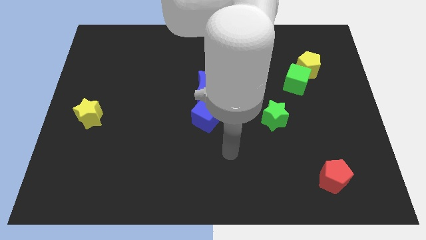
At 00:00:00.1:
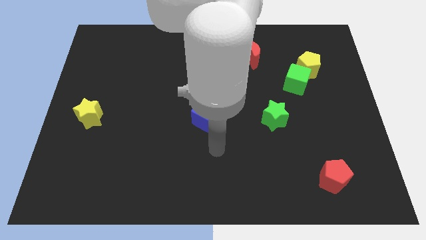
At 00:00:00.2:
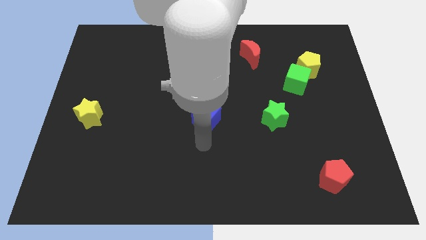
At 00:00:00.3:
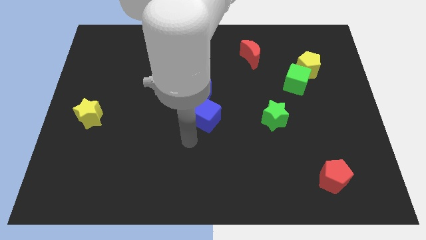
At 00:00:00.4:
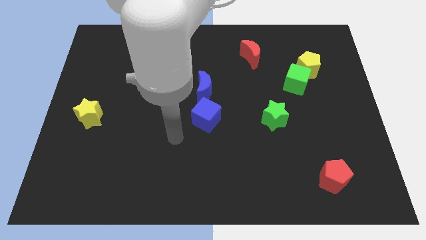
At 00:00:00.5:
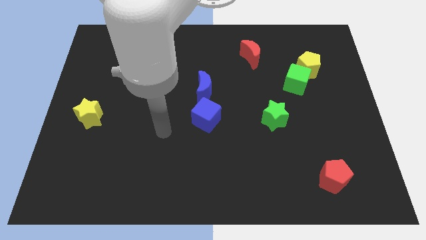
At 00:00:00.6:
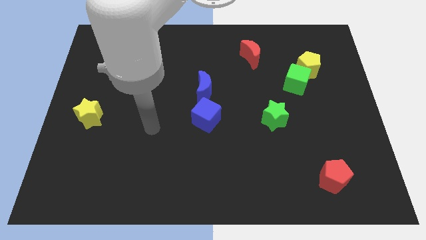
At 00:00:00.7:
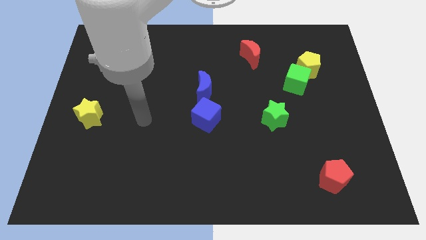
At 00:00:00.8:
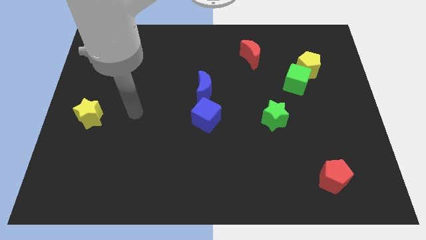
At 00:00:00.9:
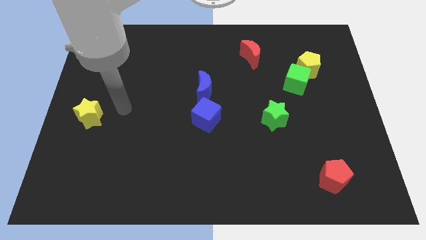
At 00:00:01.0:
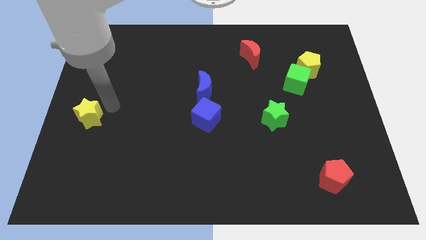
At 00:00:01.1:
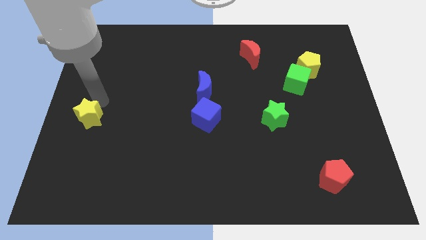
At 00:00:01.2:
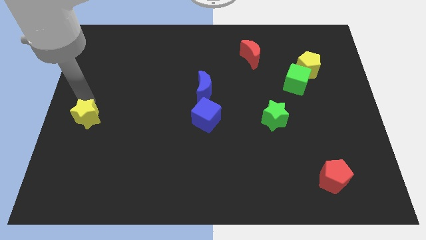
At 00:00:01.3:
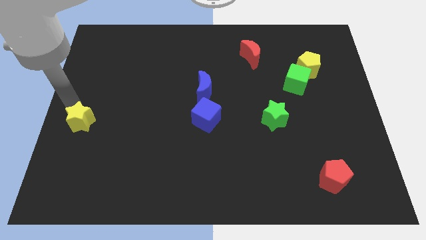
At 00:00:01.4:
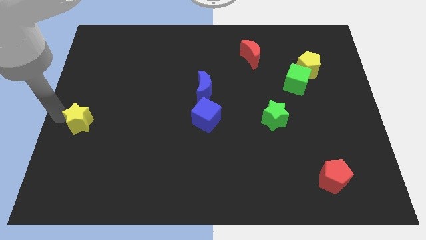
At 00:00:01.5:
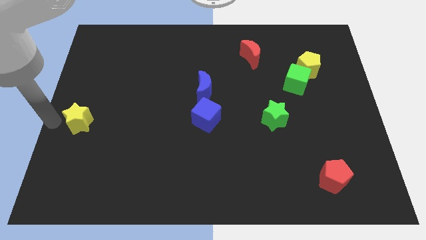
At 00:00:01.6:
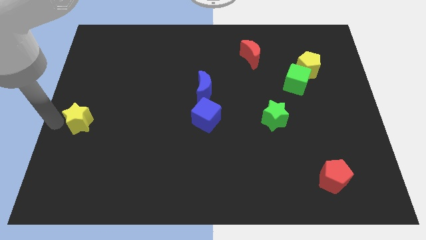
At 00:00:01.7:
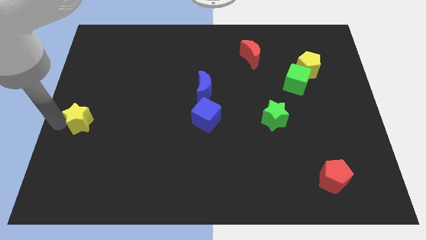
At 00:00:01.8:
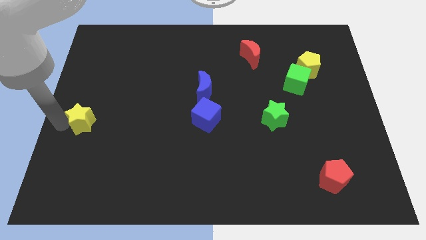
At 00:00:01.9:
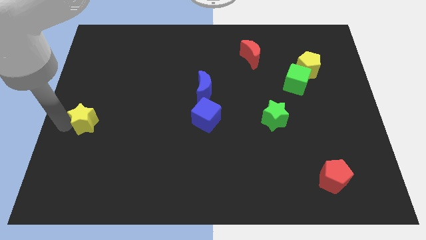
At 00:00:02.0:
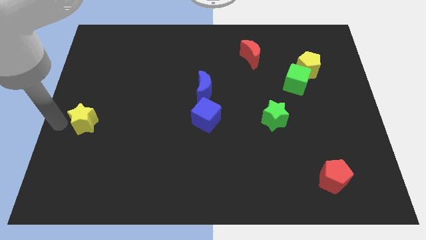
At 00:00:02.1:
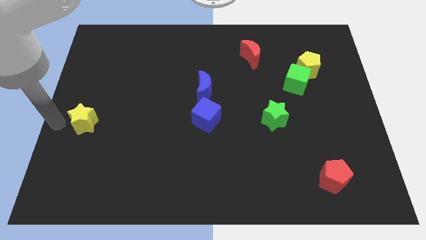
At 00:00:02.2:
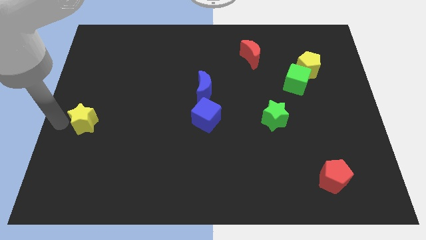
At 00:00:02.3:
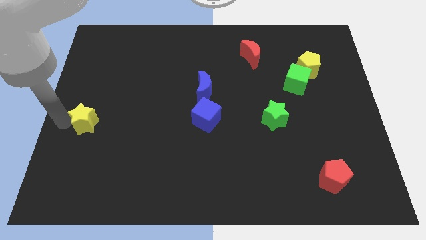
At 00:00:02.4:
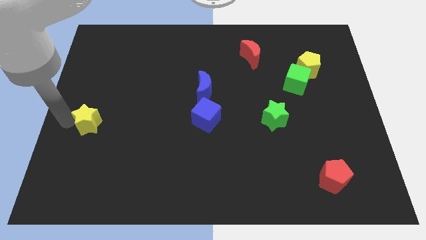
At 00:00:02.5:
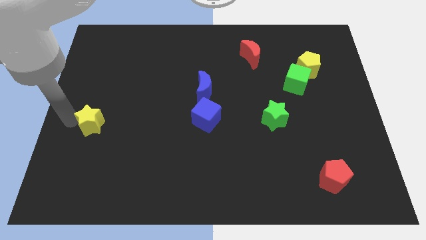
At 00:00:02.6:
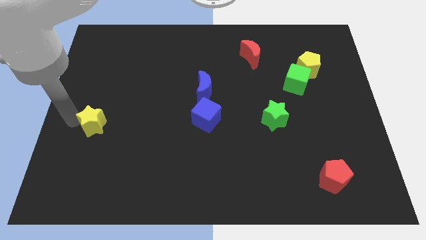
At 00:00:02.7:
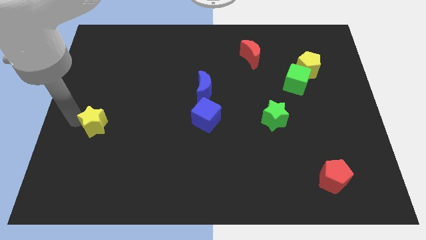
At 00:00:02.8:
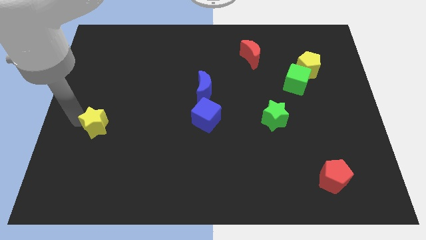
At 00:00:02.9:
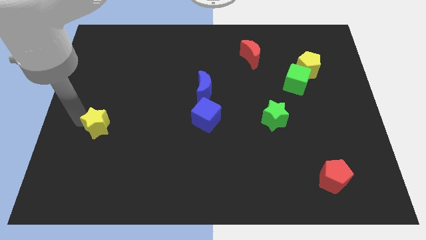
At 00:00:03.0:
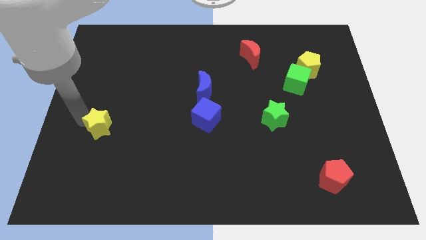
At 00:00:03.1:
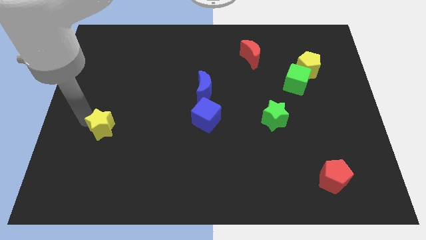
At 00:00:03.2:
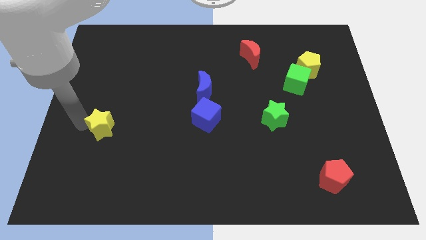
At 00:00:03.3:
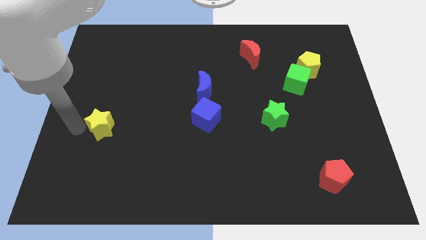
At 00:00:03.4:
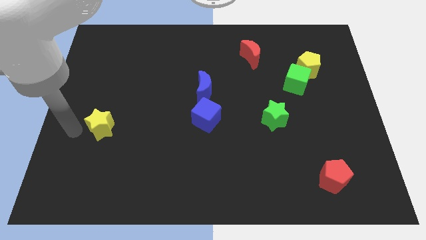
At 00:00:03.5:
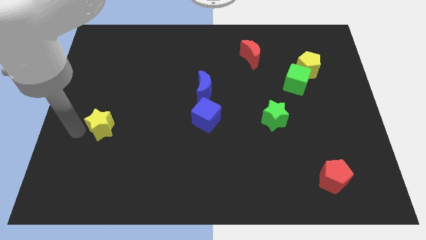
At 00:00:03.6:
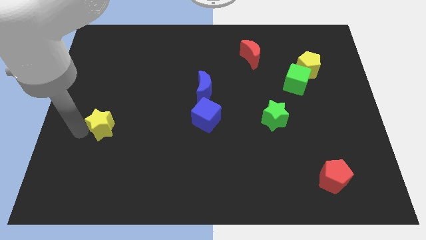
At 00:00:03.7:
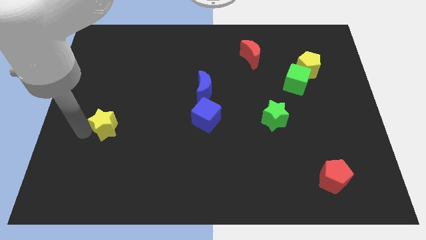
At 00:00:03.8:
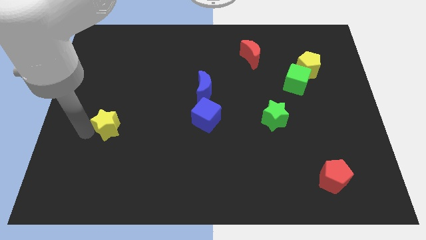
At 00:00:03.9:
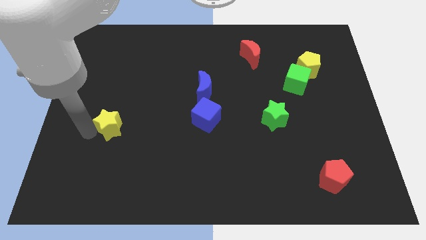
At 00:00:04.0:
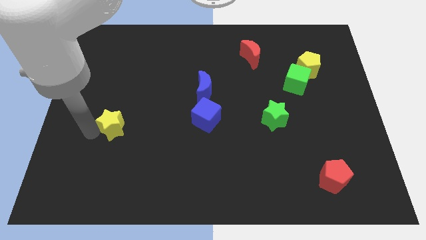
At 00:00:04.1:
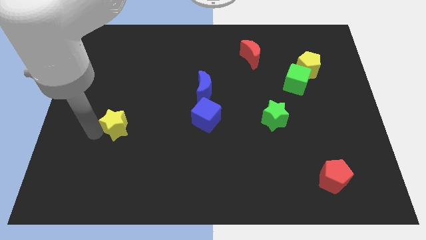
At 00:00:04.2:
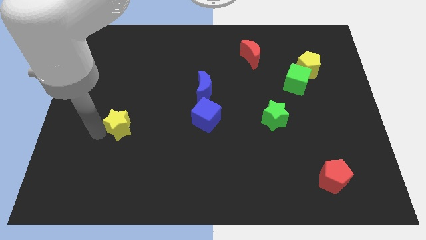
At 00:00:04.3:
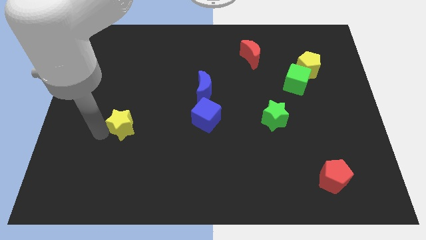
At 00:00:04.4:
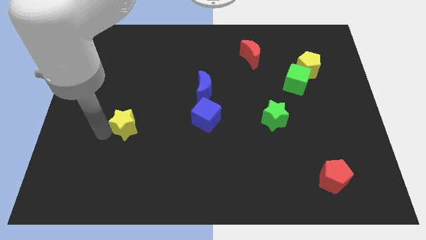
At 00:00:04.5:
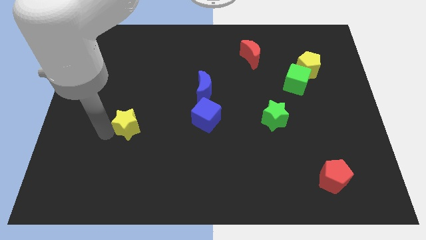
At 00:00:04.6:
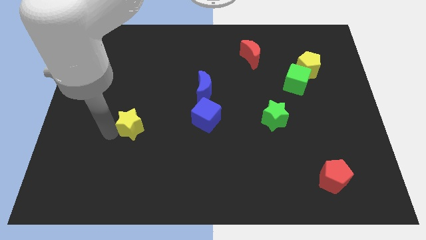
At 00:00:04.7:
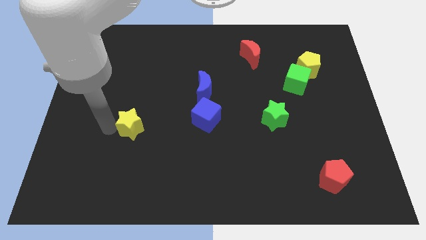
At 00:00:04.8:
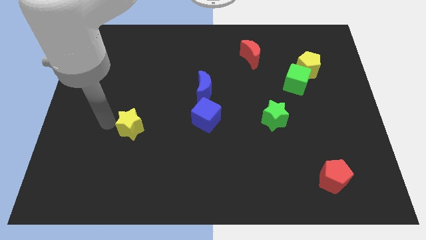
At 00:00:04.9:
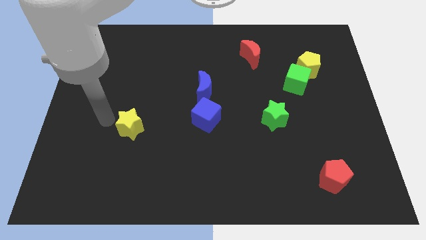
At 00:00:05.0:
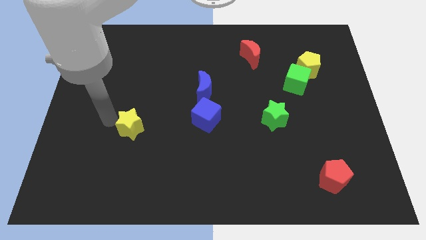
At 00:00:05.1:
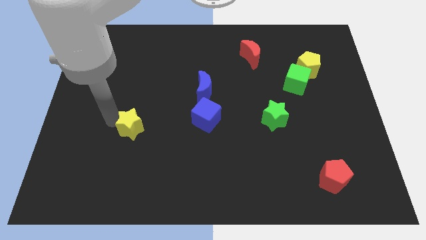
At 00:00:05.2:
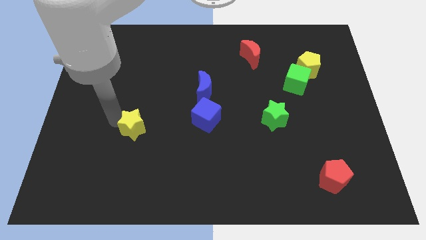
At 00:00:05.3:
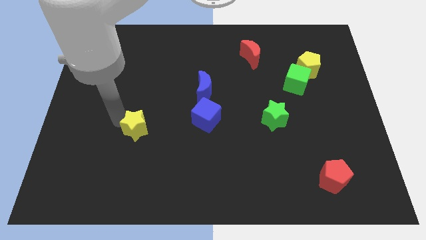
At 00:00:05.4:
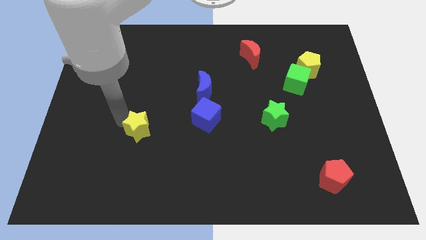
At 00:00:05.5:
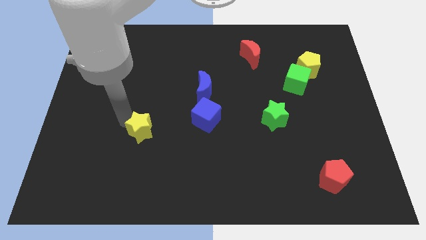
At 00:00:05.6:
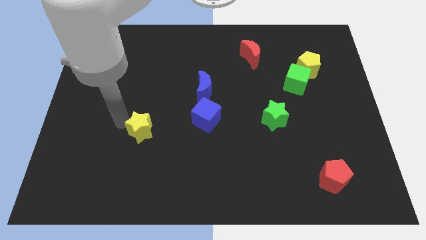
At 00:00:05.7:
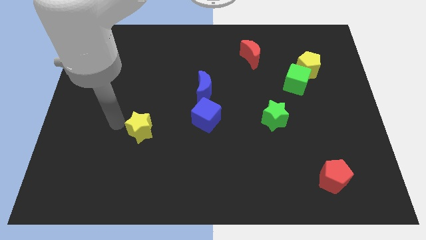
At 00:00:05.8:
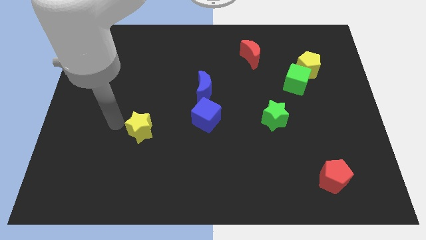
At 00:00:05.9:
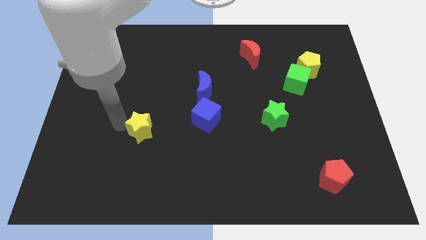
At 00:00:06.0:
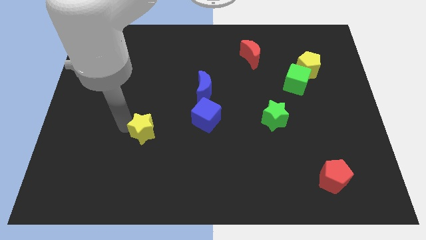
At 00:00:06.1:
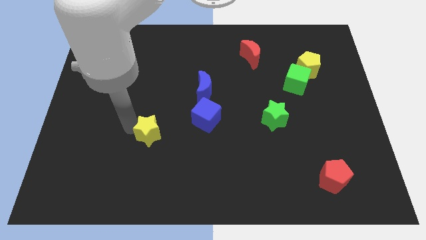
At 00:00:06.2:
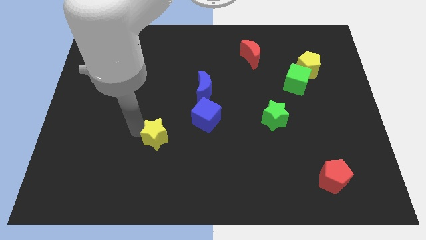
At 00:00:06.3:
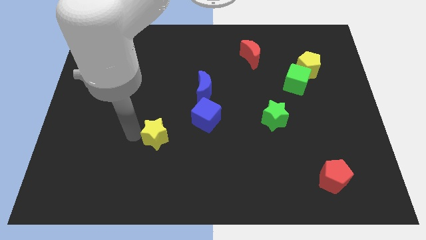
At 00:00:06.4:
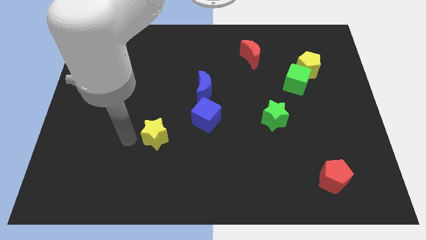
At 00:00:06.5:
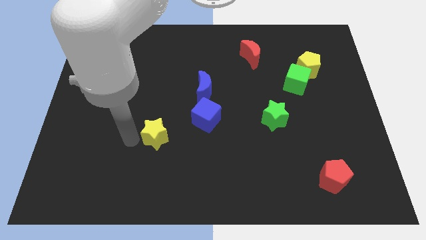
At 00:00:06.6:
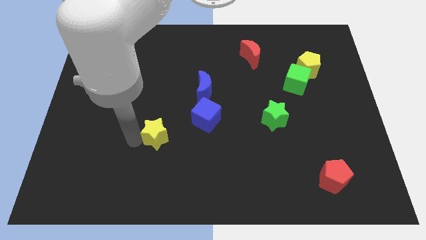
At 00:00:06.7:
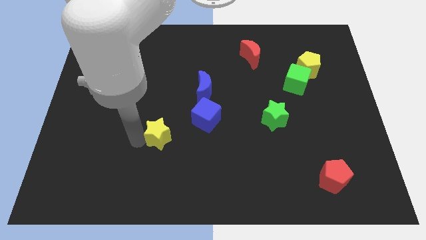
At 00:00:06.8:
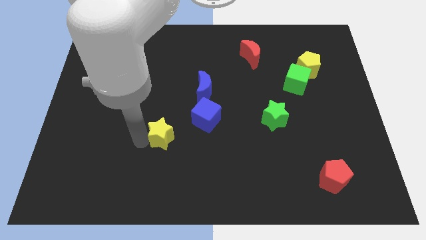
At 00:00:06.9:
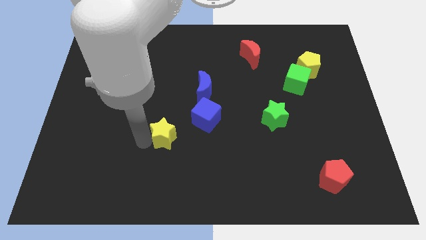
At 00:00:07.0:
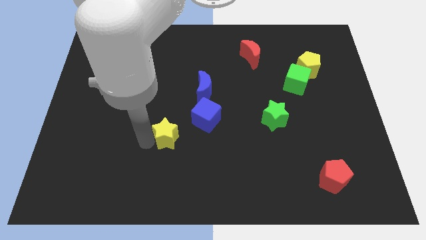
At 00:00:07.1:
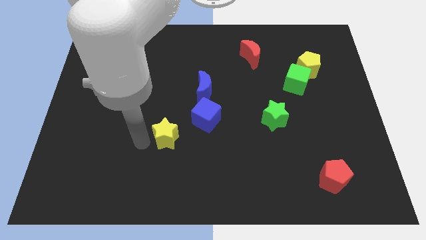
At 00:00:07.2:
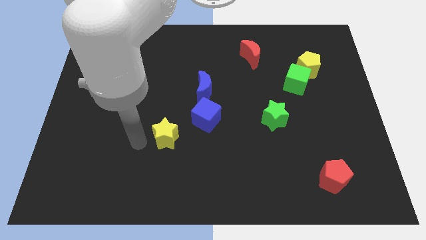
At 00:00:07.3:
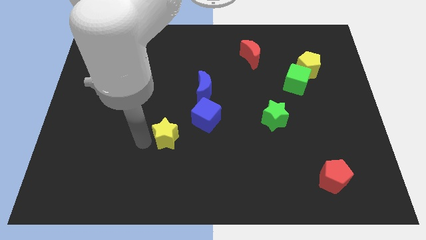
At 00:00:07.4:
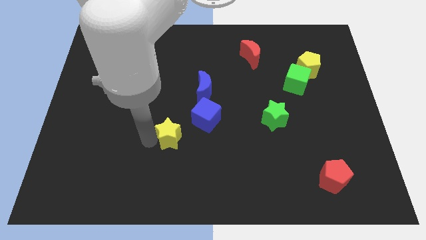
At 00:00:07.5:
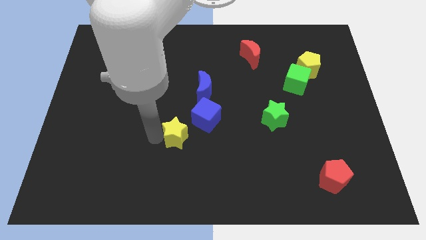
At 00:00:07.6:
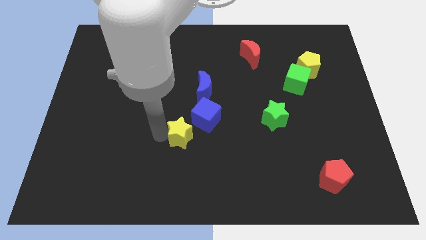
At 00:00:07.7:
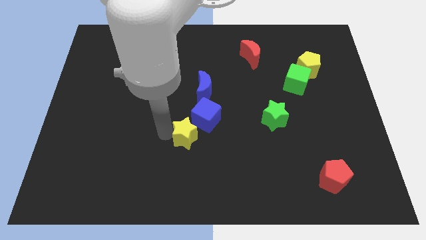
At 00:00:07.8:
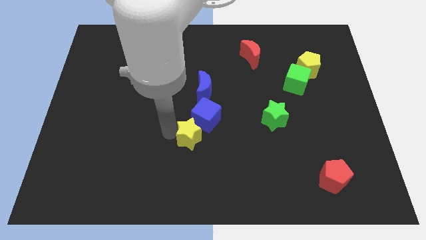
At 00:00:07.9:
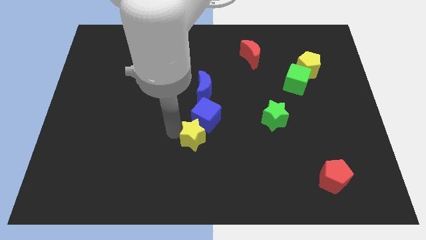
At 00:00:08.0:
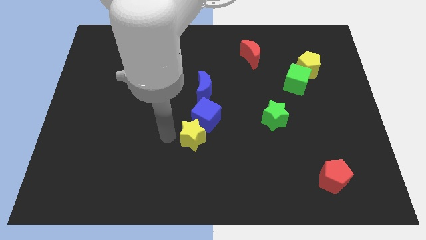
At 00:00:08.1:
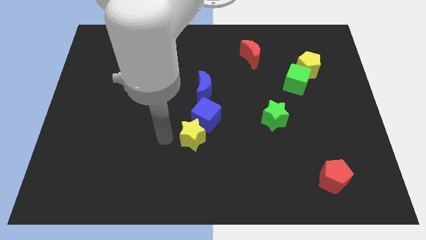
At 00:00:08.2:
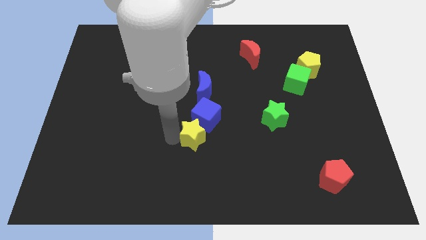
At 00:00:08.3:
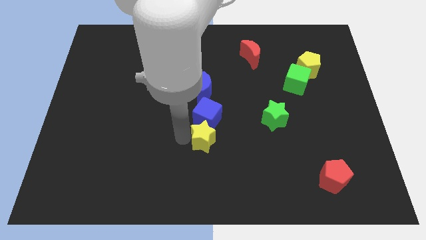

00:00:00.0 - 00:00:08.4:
slide the yellow star to the bottom right of the blue cube
